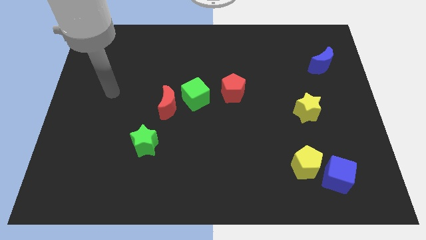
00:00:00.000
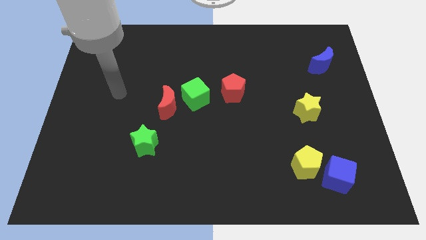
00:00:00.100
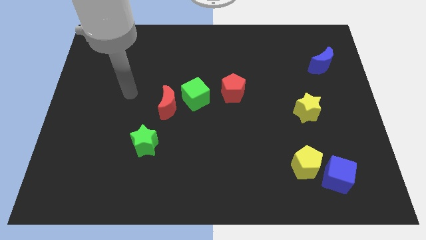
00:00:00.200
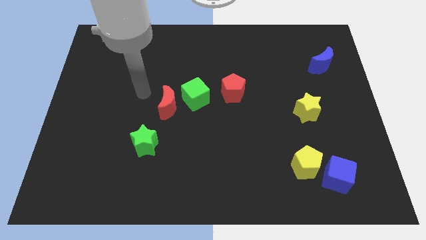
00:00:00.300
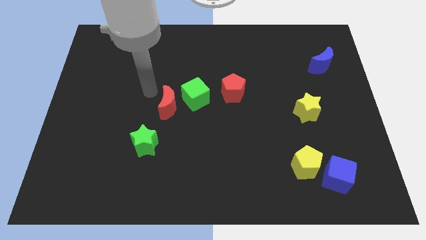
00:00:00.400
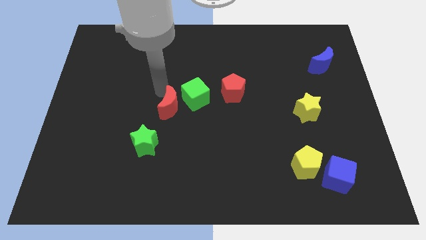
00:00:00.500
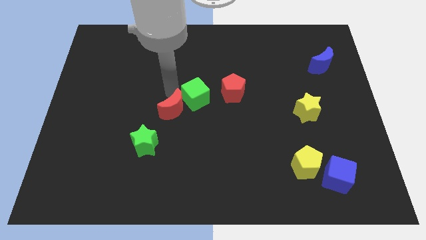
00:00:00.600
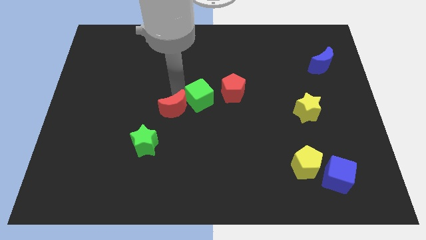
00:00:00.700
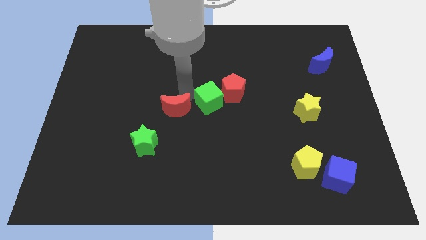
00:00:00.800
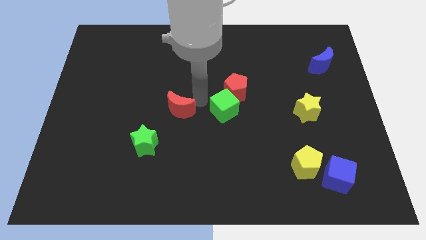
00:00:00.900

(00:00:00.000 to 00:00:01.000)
move the red moon away from the green cube

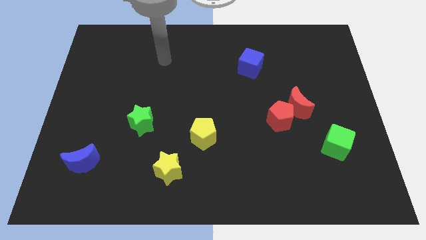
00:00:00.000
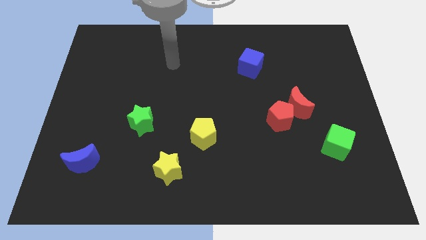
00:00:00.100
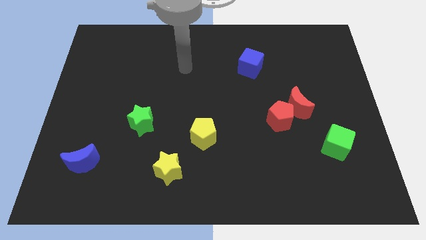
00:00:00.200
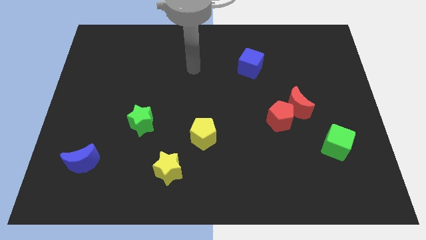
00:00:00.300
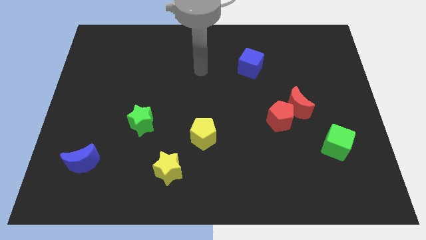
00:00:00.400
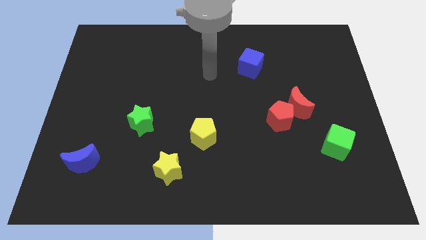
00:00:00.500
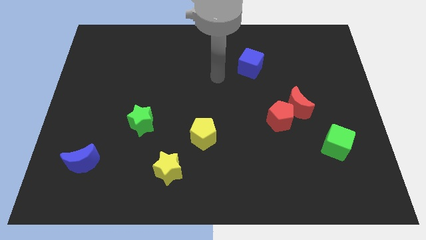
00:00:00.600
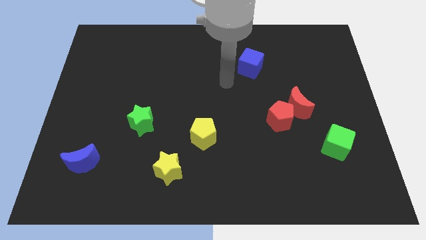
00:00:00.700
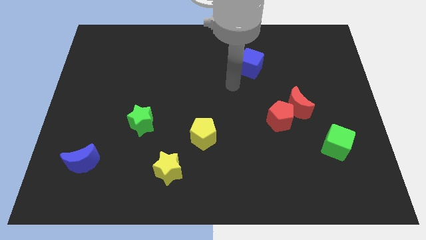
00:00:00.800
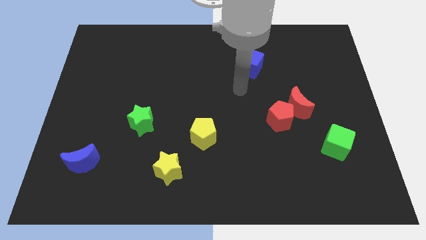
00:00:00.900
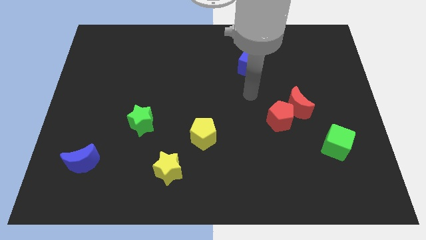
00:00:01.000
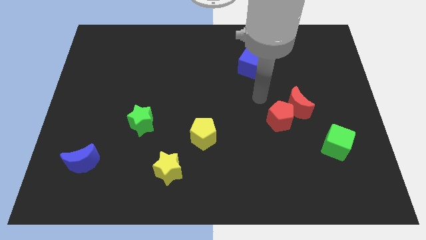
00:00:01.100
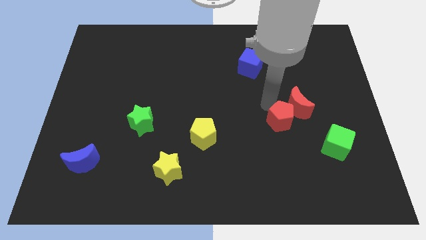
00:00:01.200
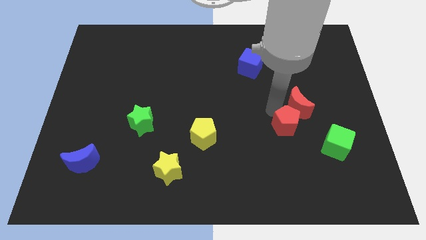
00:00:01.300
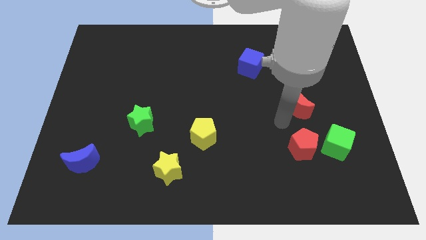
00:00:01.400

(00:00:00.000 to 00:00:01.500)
pull the red moon apart from the red pentagon

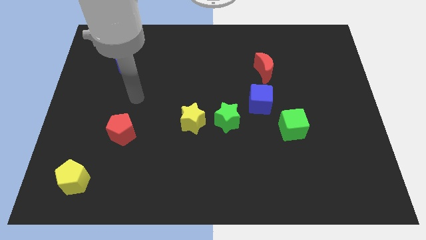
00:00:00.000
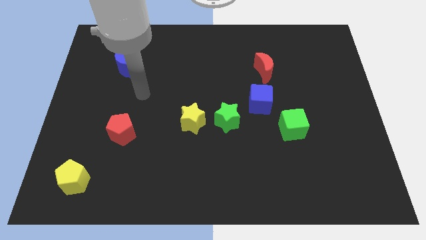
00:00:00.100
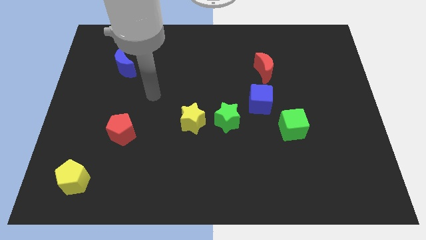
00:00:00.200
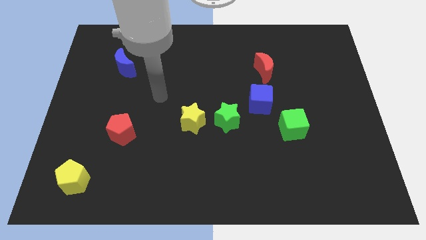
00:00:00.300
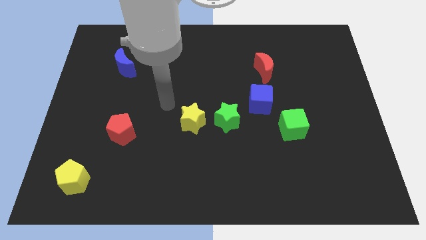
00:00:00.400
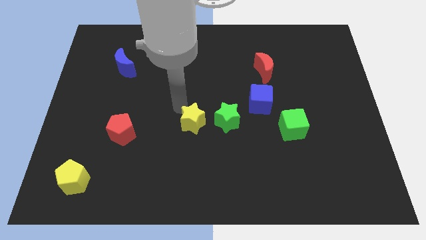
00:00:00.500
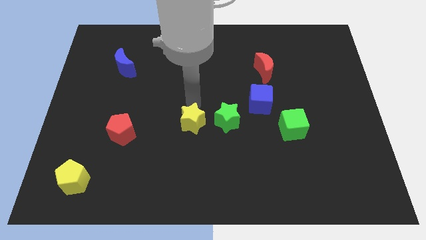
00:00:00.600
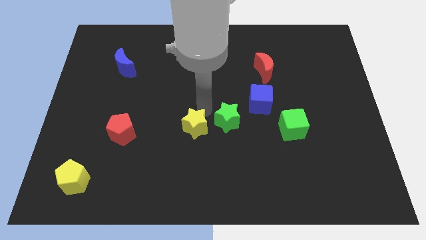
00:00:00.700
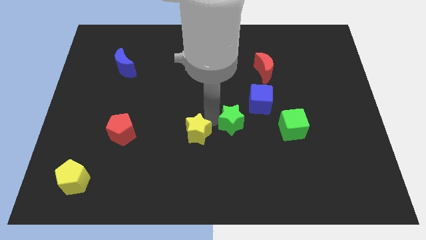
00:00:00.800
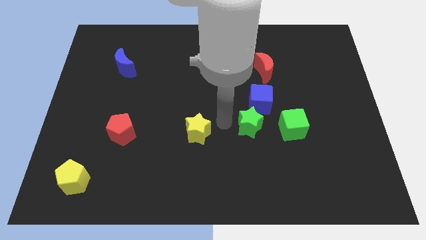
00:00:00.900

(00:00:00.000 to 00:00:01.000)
move the yellow star away from the green star

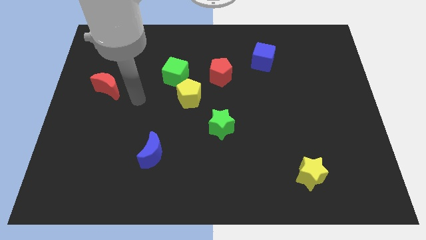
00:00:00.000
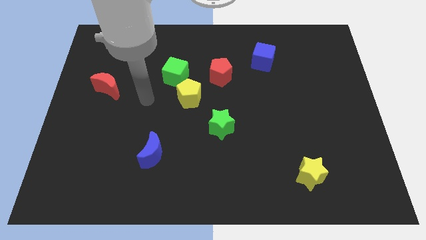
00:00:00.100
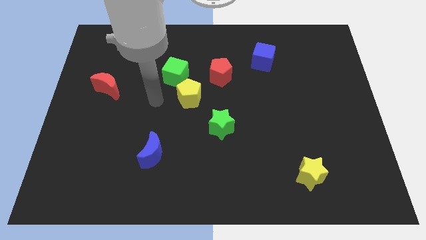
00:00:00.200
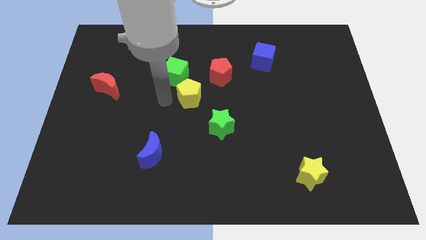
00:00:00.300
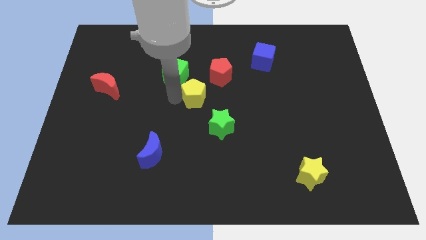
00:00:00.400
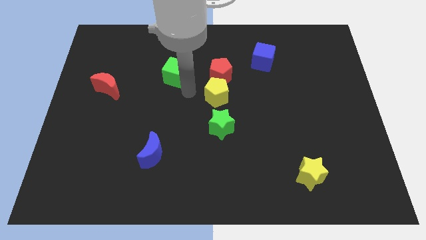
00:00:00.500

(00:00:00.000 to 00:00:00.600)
move the green cube away from the yellow pentagon

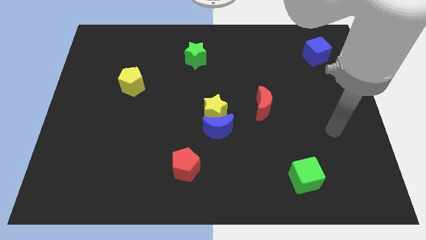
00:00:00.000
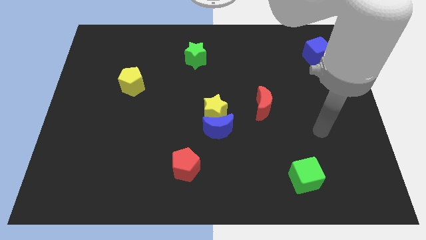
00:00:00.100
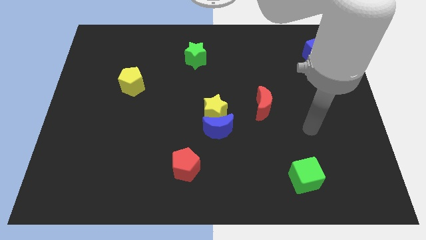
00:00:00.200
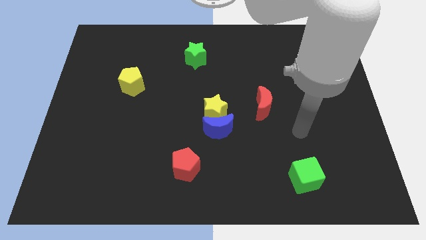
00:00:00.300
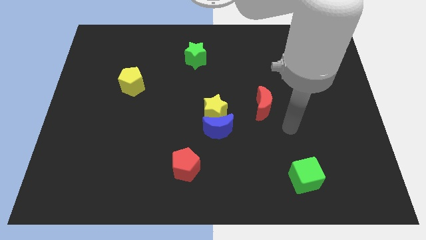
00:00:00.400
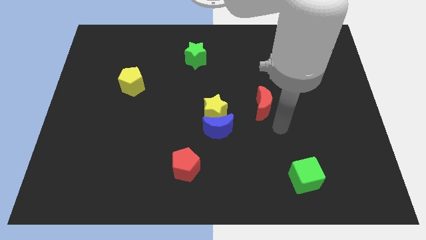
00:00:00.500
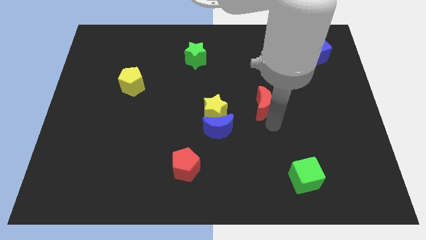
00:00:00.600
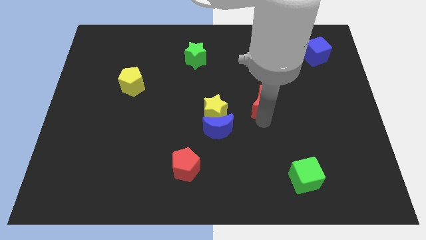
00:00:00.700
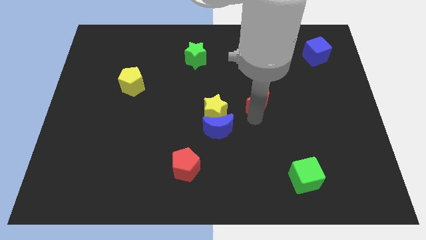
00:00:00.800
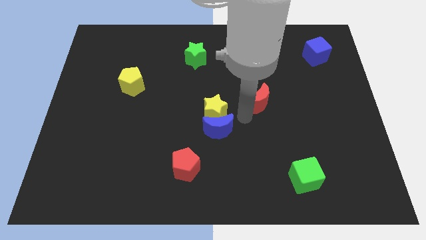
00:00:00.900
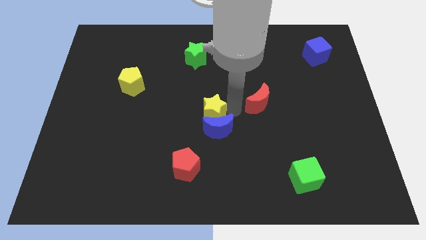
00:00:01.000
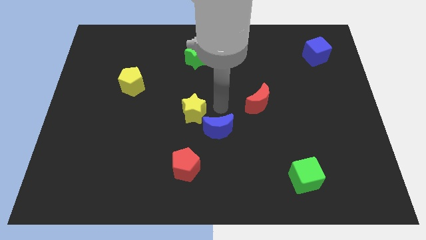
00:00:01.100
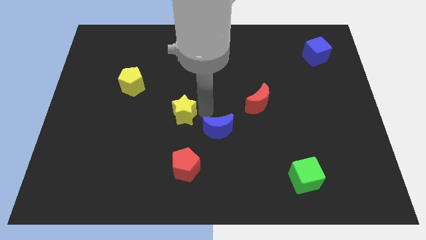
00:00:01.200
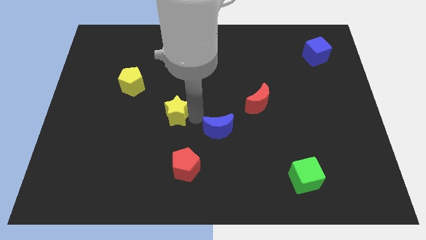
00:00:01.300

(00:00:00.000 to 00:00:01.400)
pull the blue moon apart from the yellow star

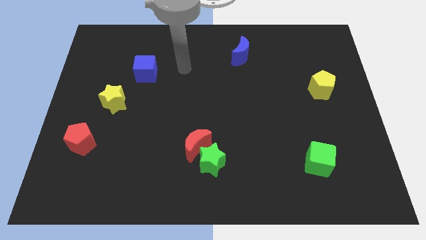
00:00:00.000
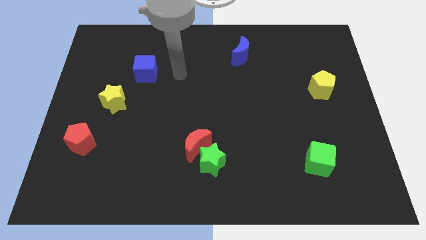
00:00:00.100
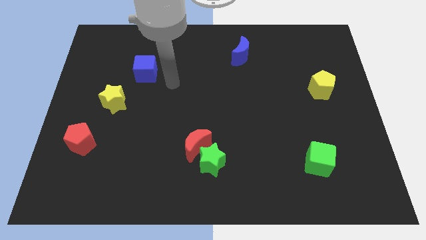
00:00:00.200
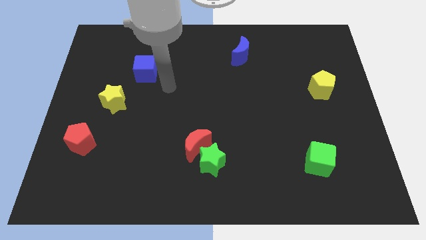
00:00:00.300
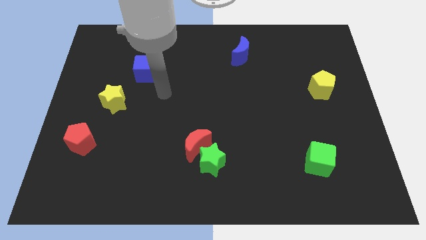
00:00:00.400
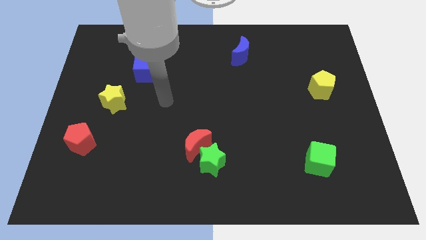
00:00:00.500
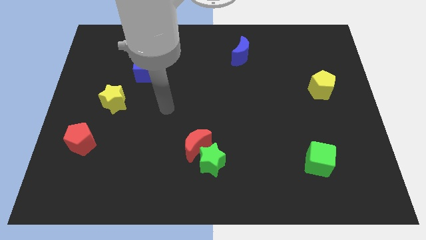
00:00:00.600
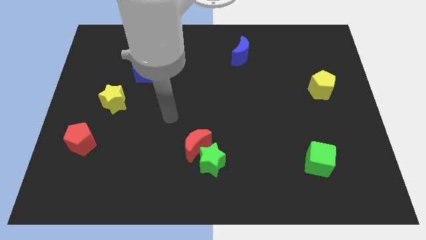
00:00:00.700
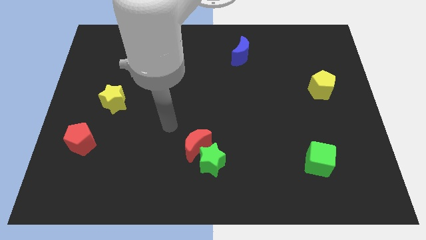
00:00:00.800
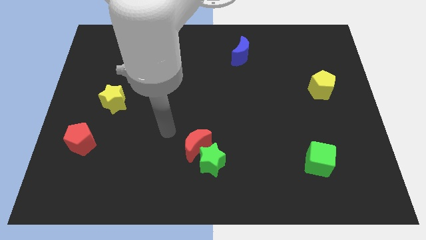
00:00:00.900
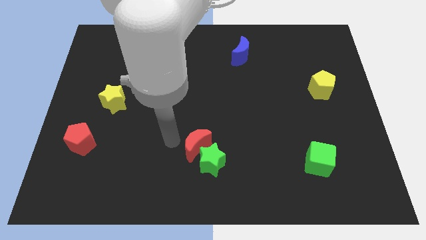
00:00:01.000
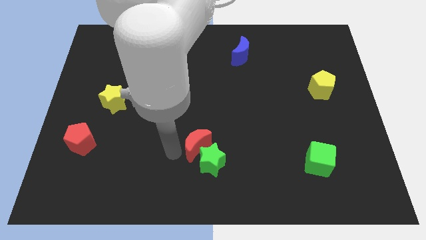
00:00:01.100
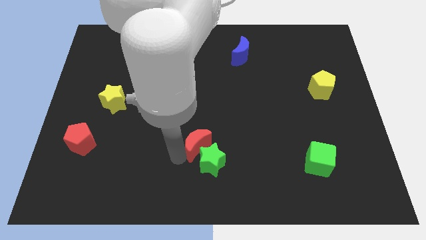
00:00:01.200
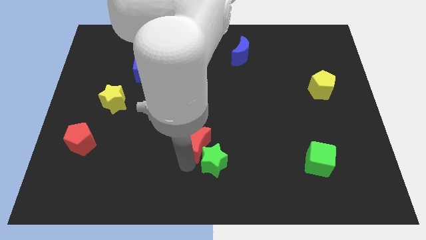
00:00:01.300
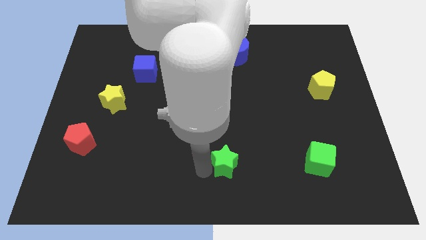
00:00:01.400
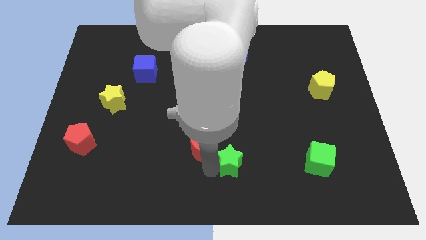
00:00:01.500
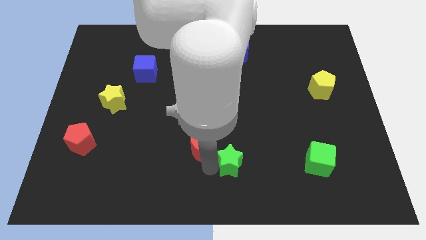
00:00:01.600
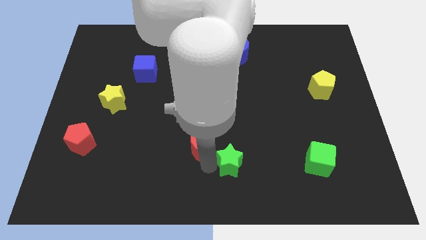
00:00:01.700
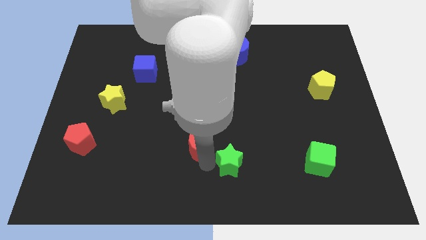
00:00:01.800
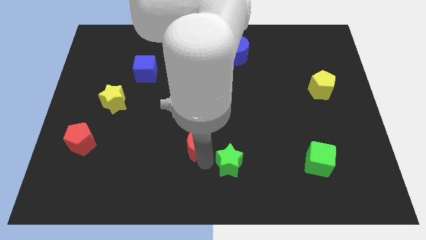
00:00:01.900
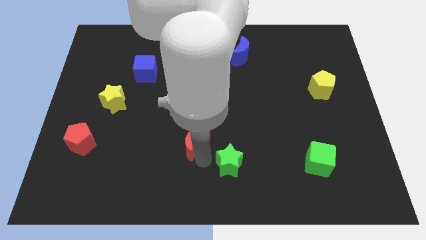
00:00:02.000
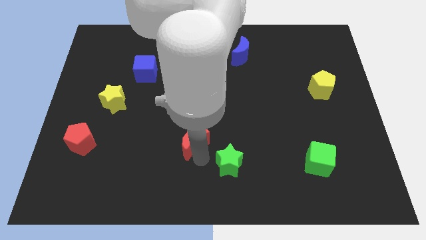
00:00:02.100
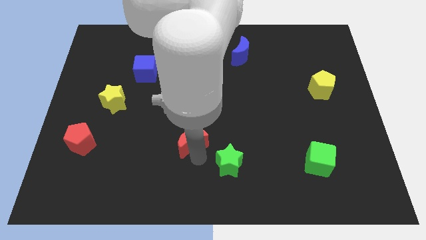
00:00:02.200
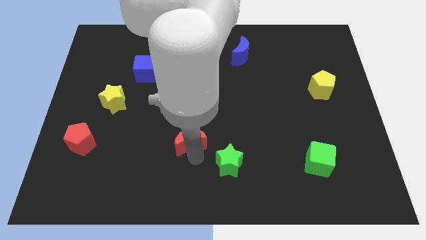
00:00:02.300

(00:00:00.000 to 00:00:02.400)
pull the red moon apart from the green star

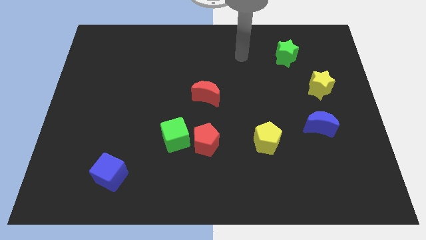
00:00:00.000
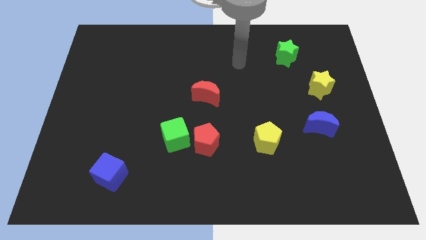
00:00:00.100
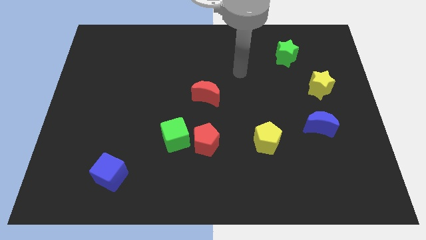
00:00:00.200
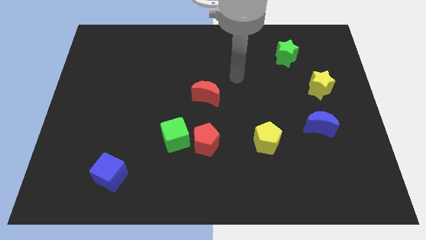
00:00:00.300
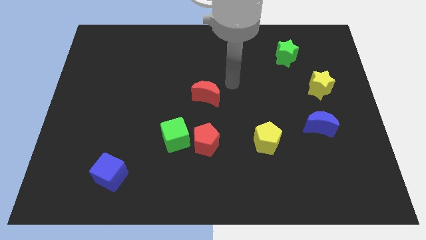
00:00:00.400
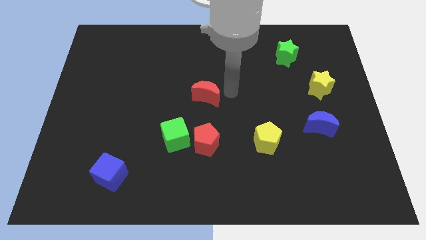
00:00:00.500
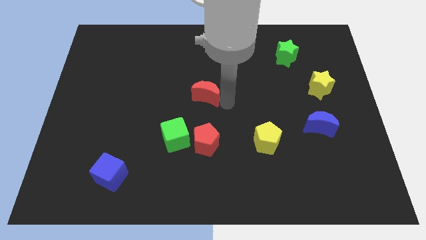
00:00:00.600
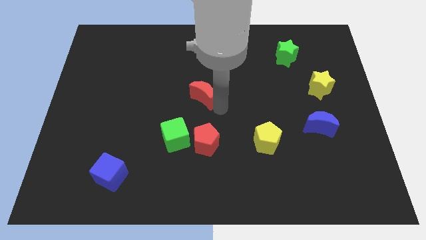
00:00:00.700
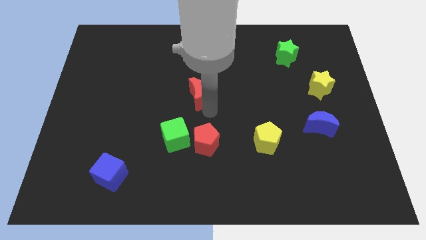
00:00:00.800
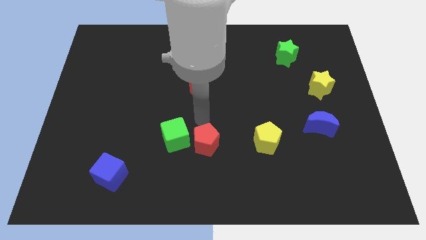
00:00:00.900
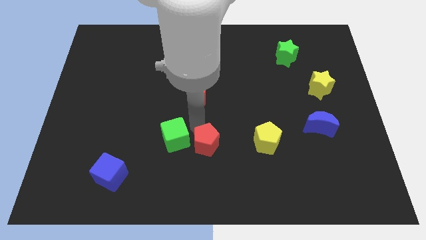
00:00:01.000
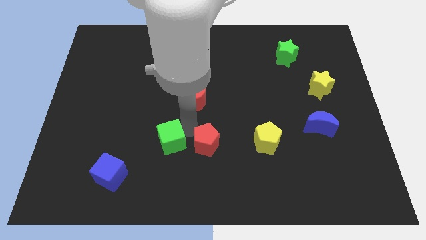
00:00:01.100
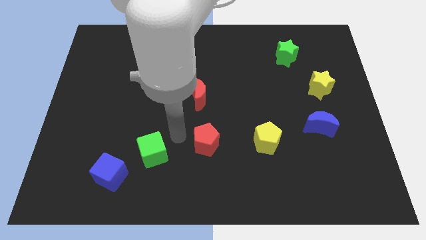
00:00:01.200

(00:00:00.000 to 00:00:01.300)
pull the red pentagon apart from the green cube
